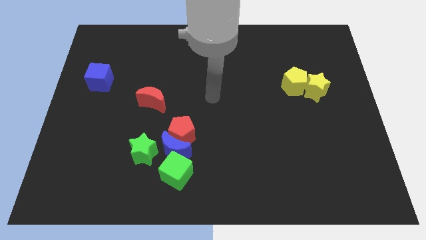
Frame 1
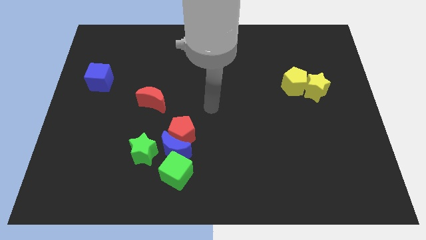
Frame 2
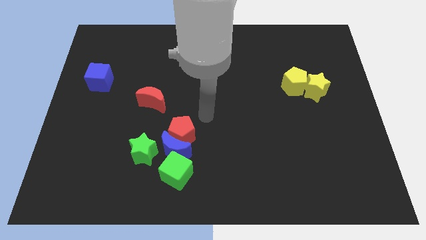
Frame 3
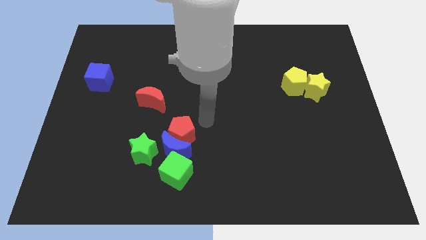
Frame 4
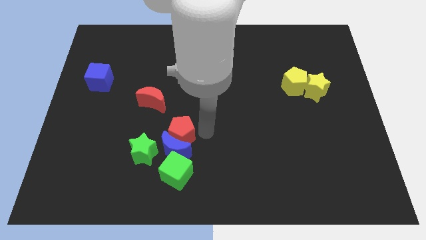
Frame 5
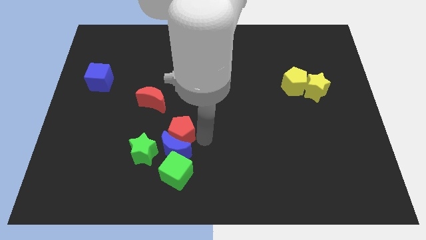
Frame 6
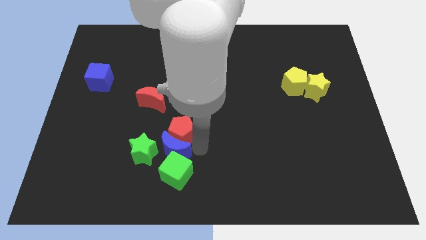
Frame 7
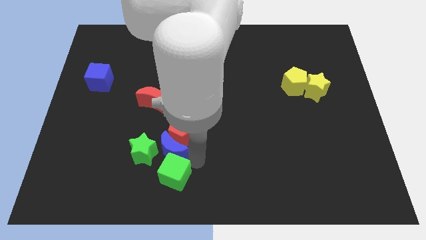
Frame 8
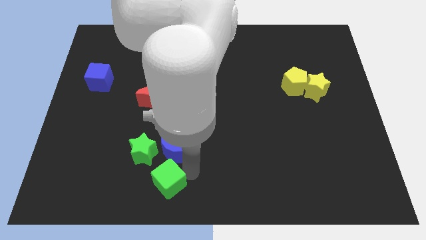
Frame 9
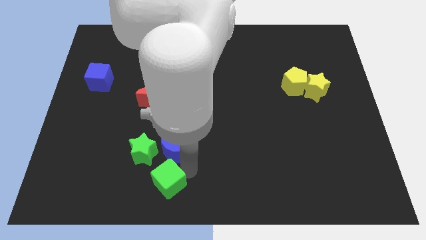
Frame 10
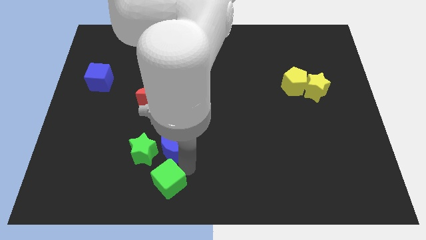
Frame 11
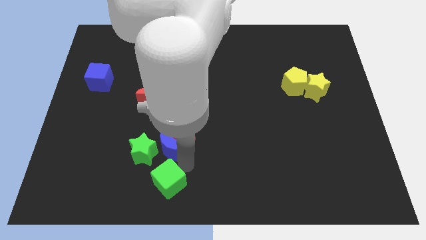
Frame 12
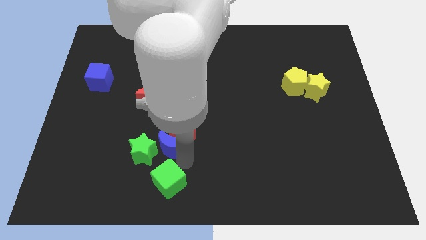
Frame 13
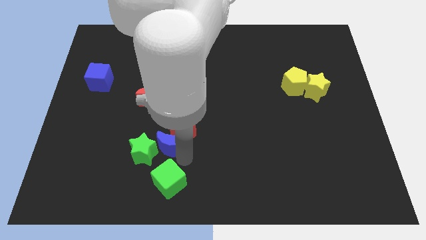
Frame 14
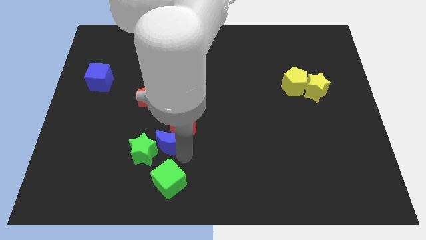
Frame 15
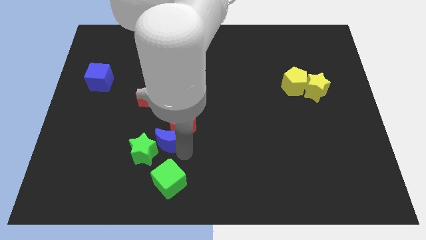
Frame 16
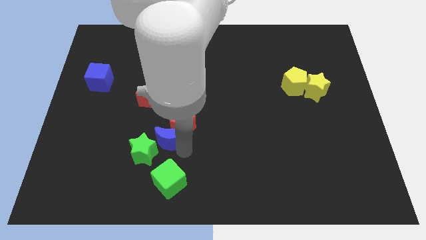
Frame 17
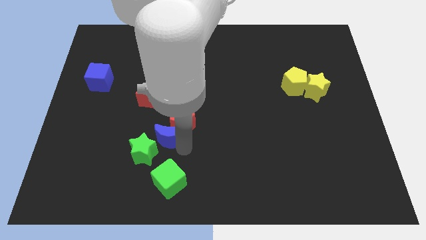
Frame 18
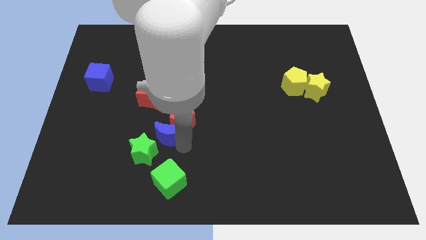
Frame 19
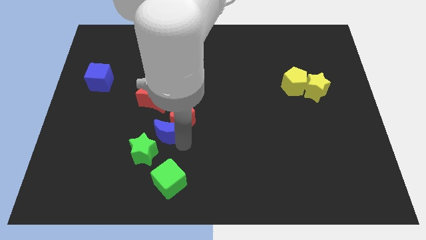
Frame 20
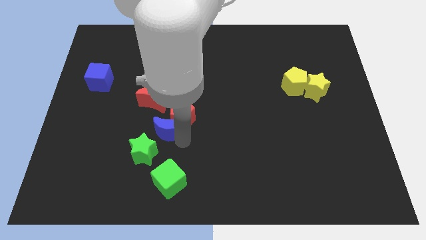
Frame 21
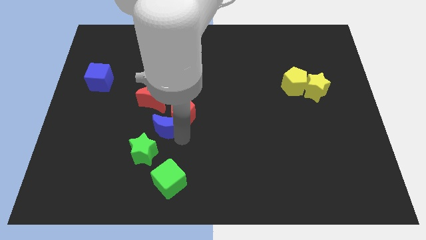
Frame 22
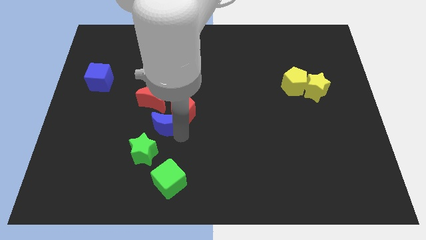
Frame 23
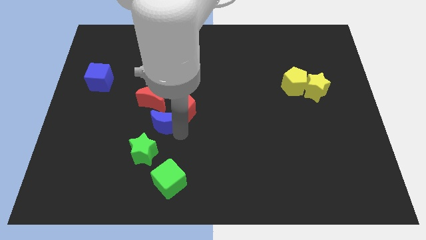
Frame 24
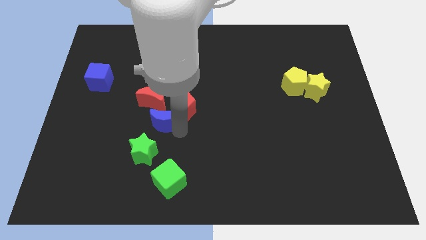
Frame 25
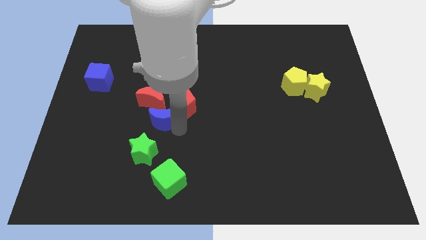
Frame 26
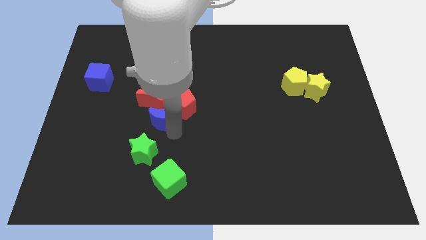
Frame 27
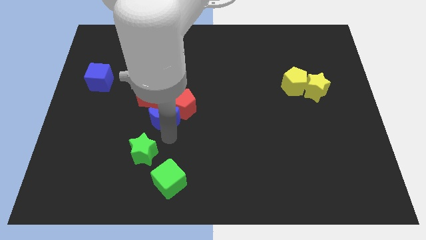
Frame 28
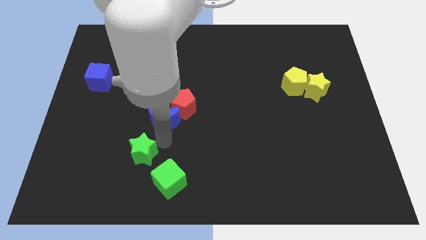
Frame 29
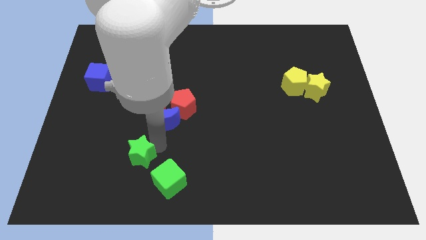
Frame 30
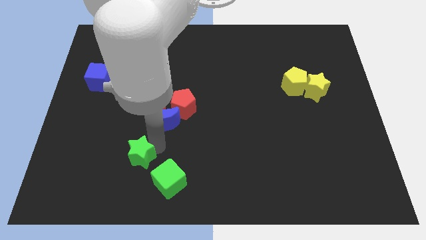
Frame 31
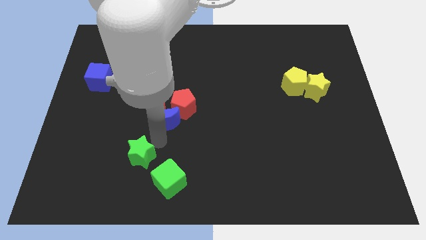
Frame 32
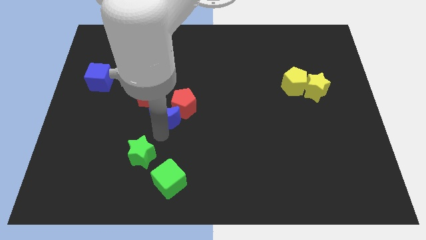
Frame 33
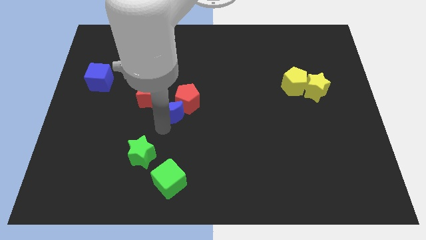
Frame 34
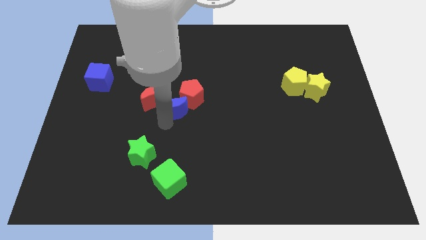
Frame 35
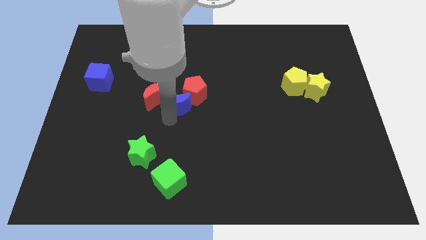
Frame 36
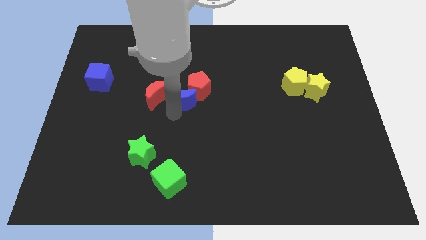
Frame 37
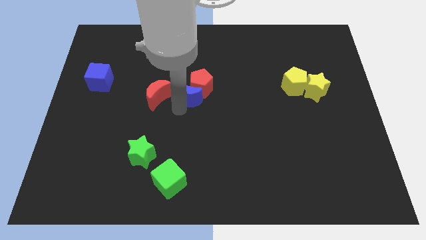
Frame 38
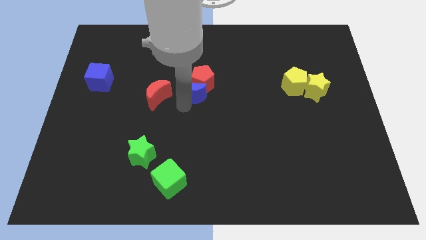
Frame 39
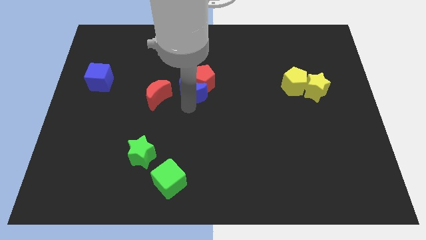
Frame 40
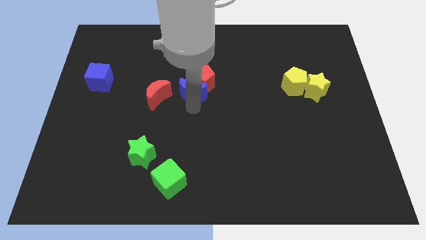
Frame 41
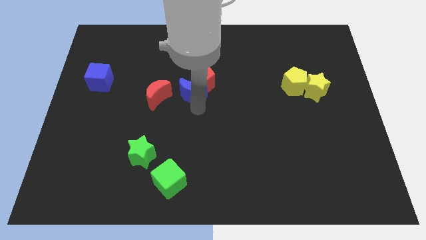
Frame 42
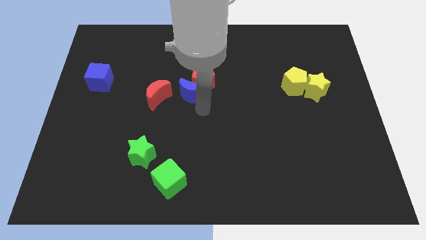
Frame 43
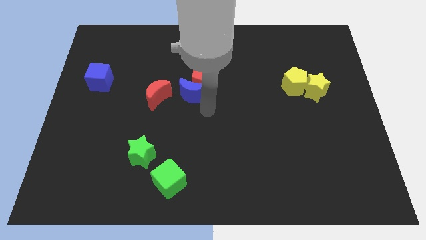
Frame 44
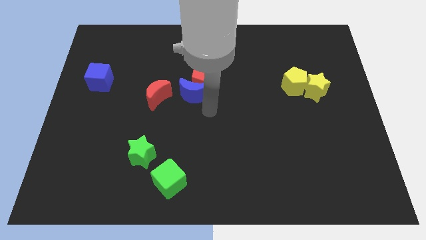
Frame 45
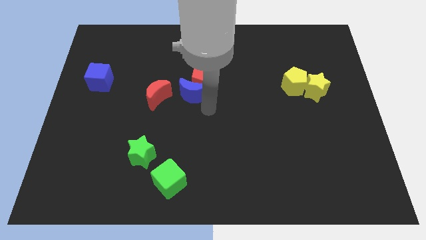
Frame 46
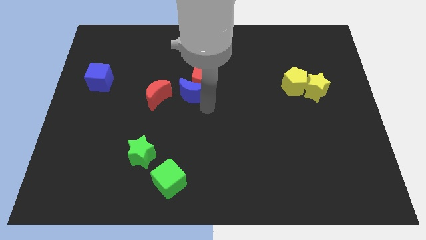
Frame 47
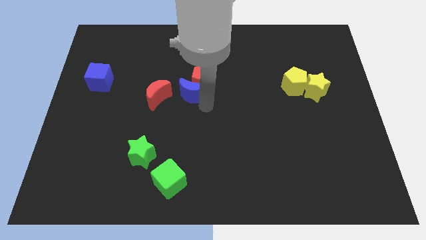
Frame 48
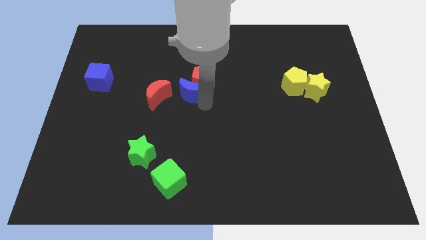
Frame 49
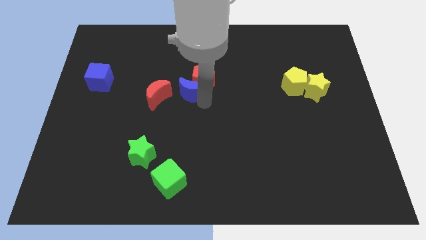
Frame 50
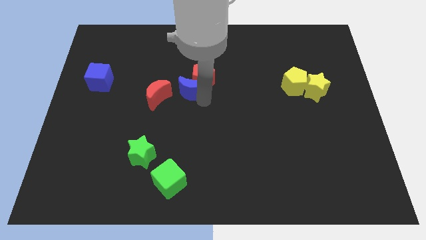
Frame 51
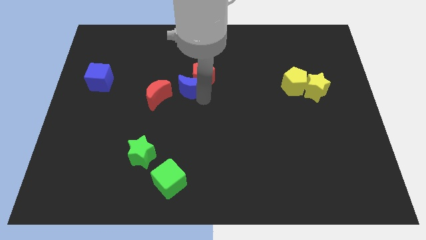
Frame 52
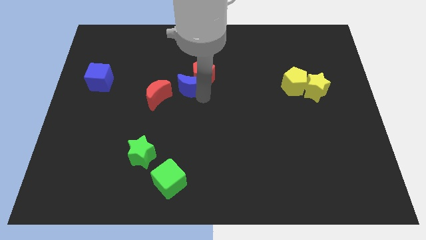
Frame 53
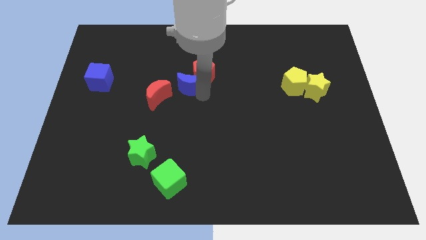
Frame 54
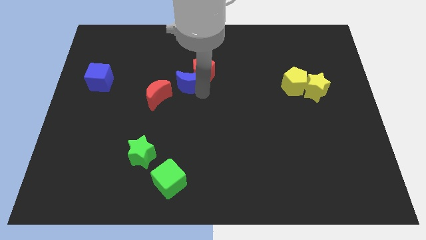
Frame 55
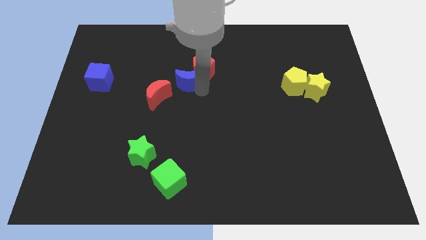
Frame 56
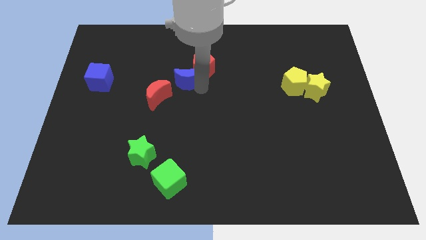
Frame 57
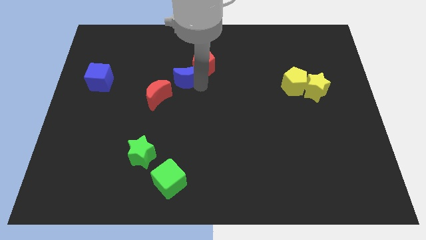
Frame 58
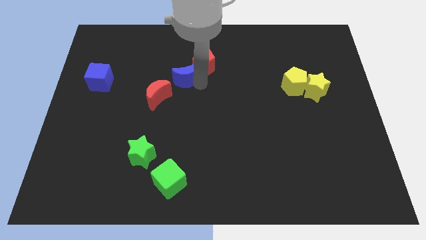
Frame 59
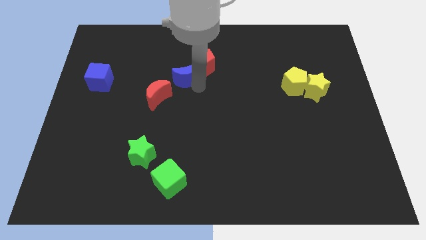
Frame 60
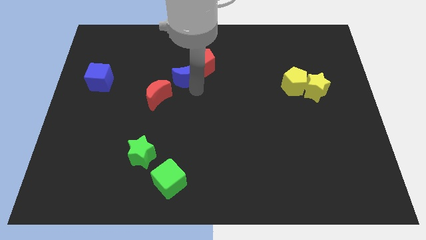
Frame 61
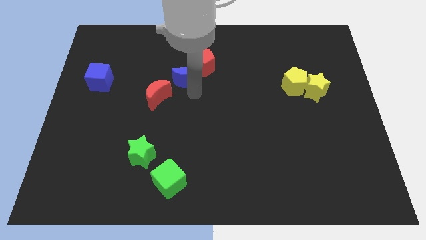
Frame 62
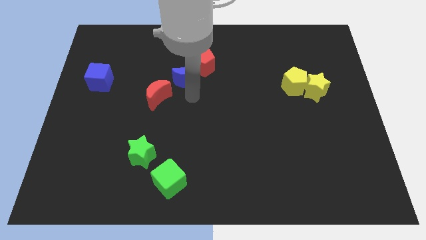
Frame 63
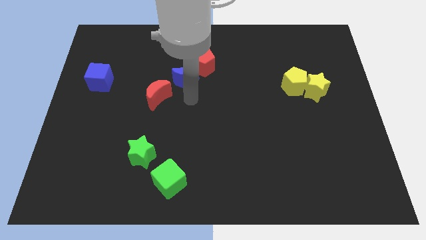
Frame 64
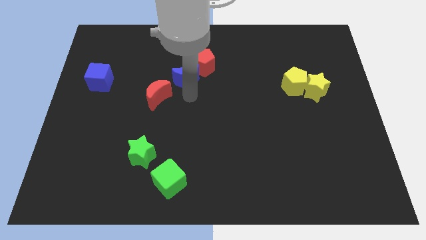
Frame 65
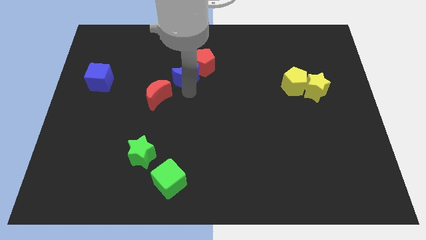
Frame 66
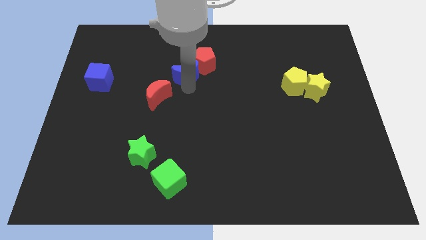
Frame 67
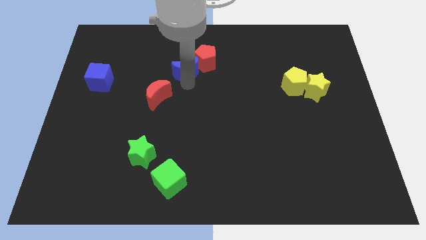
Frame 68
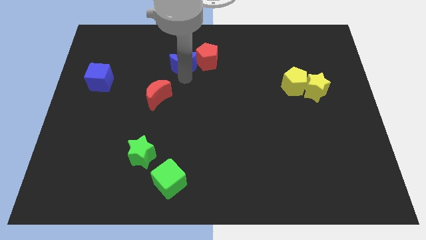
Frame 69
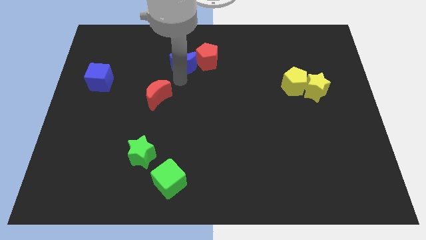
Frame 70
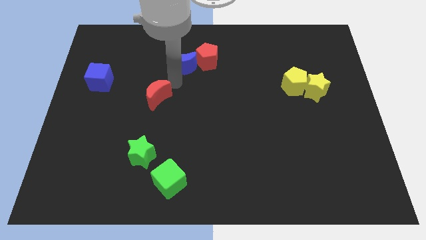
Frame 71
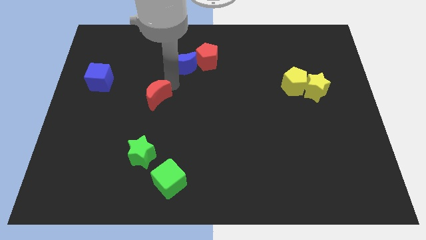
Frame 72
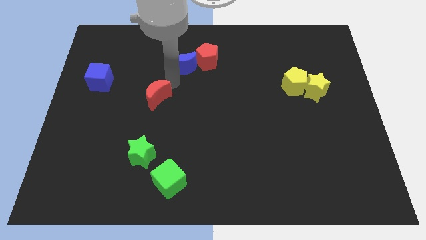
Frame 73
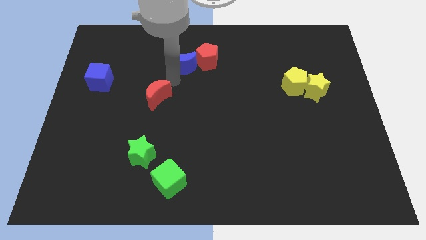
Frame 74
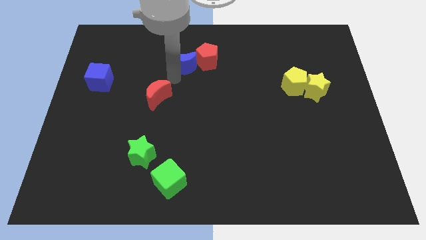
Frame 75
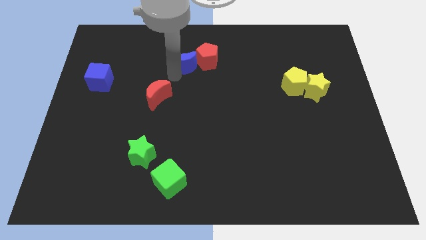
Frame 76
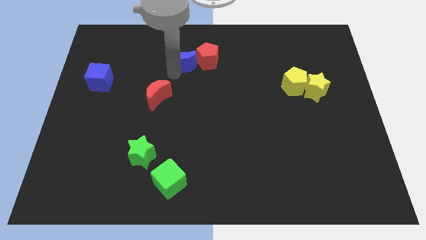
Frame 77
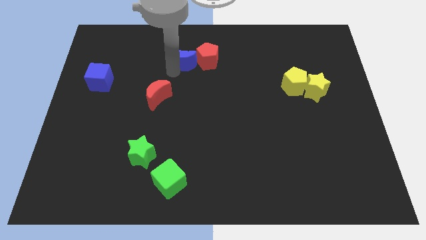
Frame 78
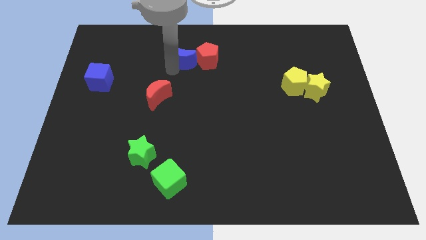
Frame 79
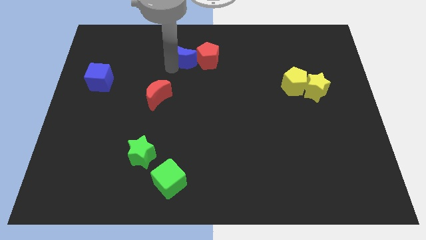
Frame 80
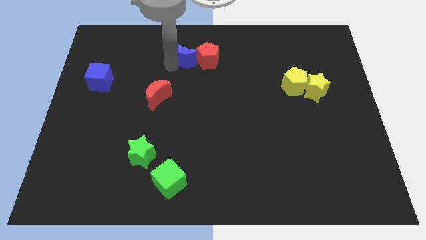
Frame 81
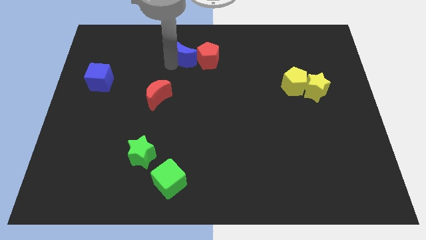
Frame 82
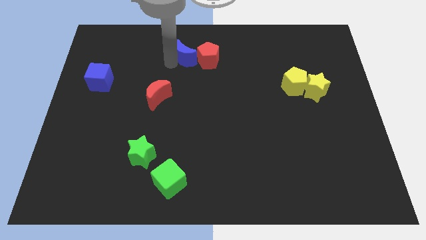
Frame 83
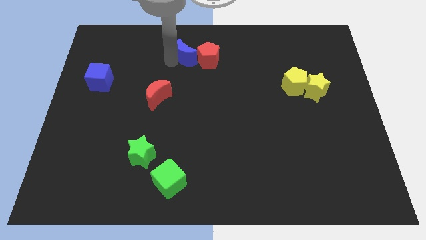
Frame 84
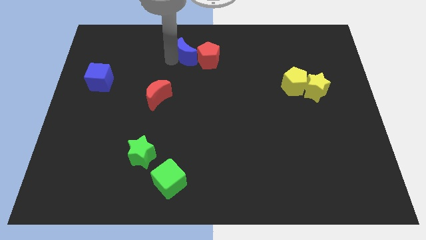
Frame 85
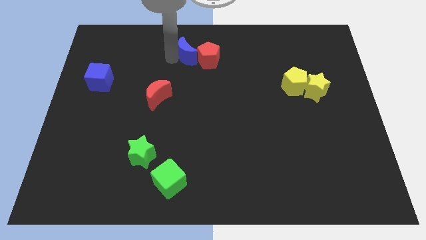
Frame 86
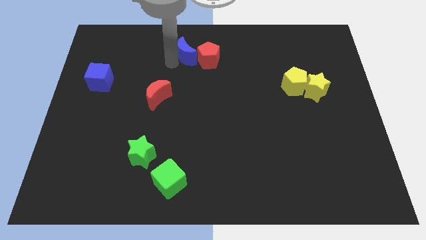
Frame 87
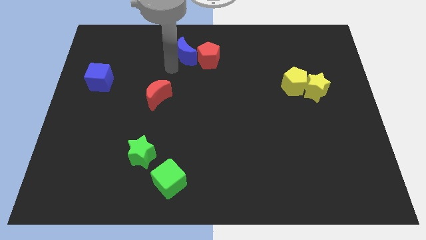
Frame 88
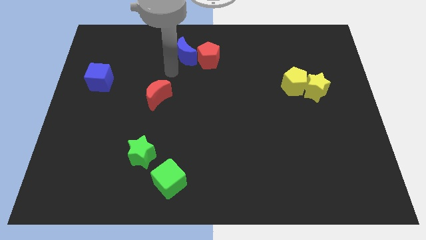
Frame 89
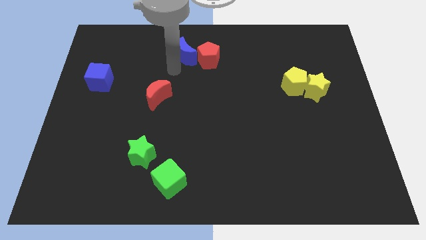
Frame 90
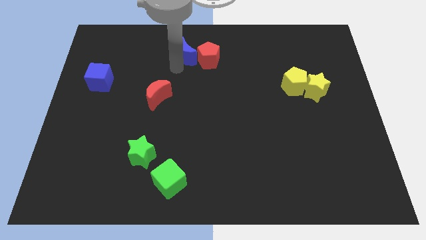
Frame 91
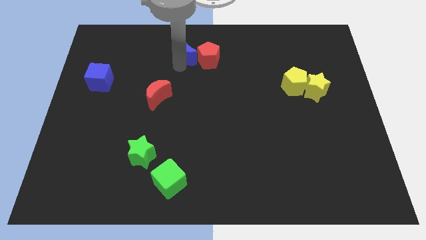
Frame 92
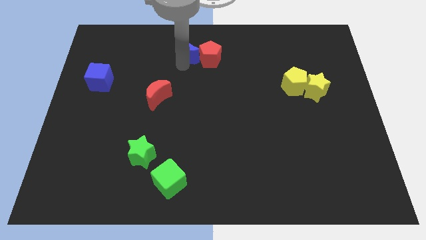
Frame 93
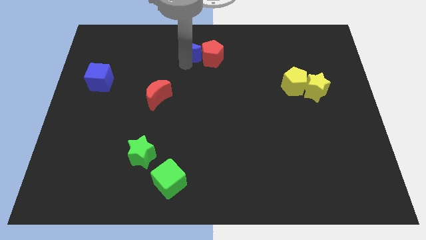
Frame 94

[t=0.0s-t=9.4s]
put the blue moon to the towards your base
